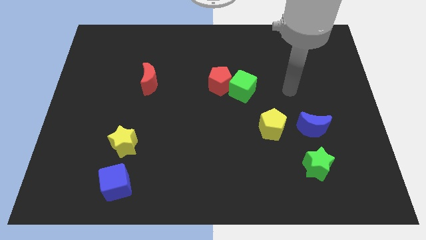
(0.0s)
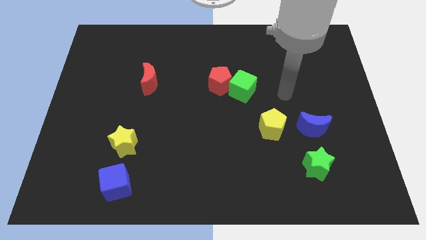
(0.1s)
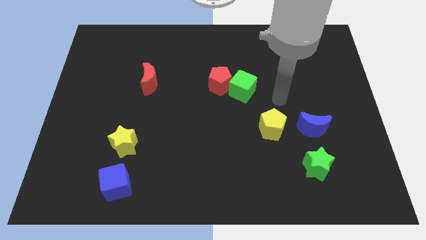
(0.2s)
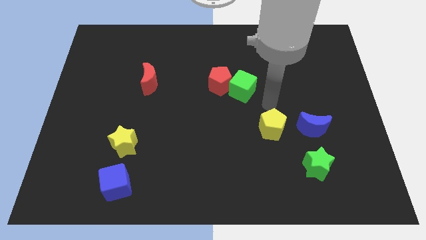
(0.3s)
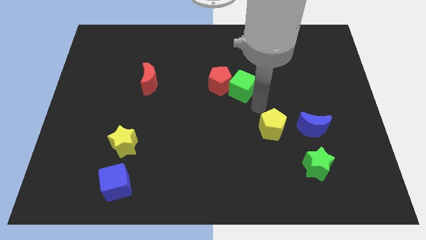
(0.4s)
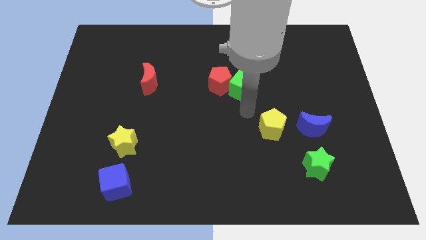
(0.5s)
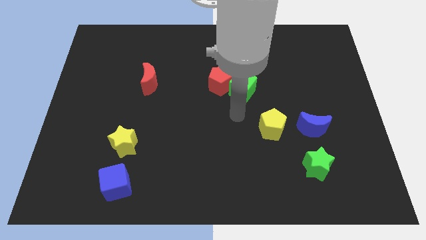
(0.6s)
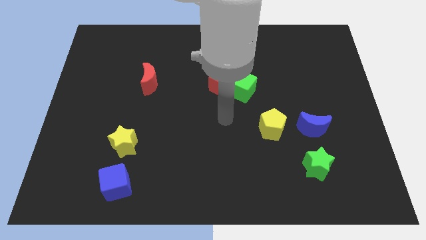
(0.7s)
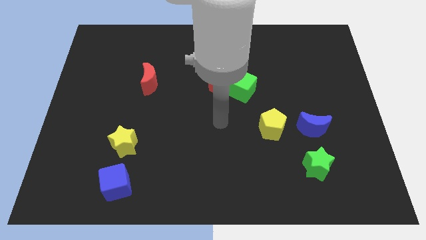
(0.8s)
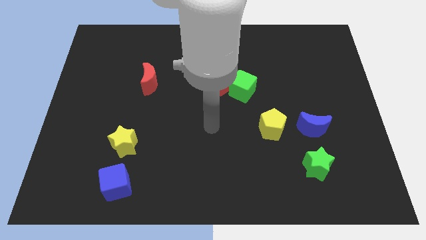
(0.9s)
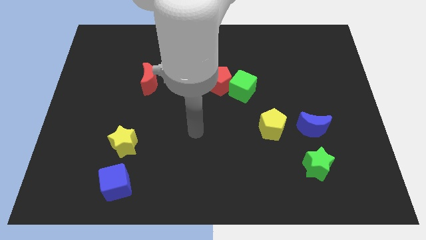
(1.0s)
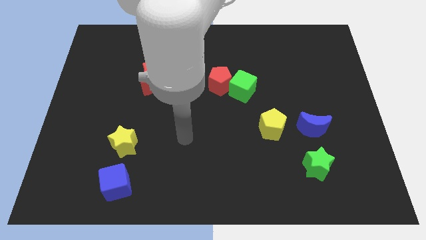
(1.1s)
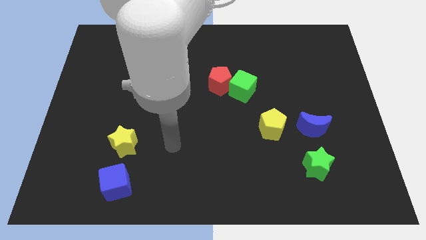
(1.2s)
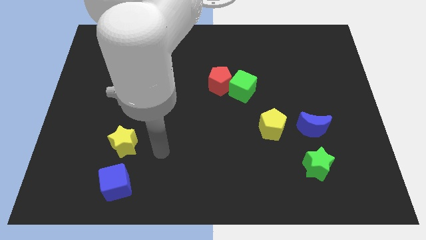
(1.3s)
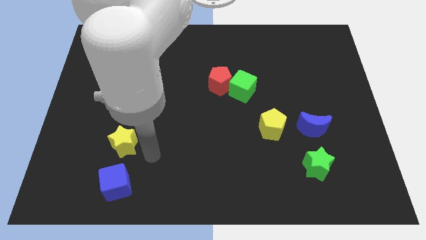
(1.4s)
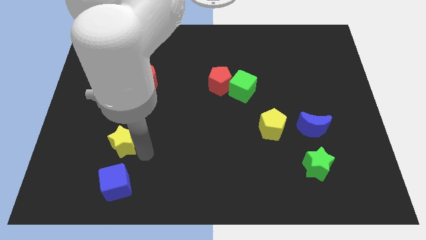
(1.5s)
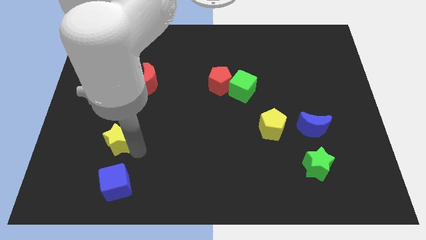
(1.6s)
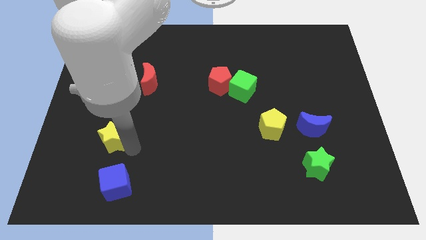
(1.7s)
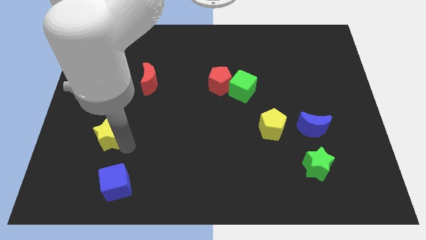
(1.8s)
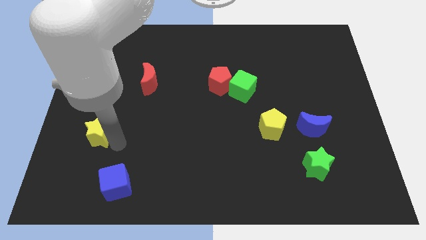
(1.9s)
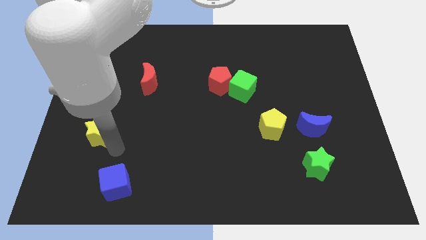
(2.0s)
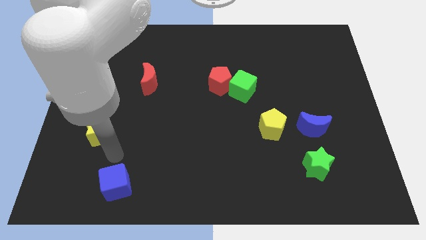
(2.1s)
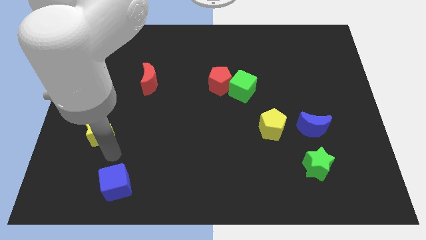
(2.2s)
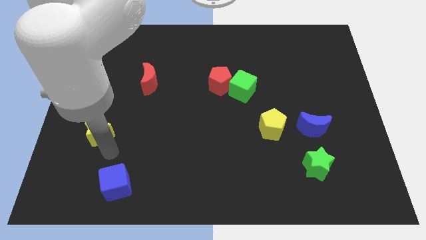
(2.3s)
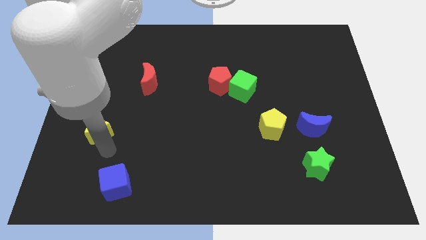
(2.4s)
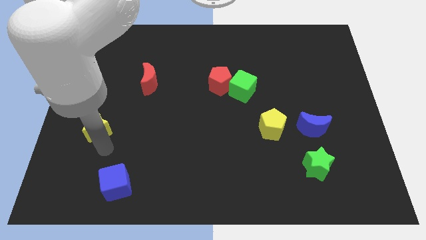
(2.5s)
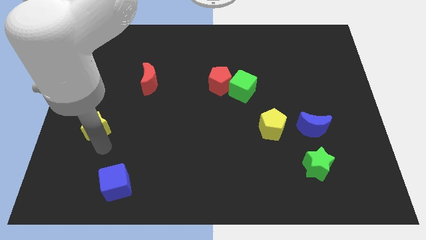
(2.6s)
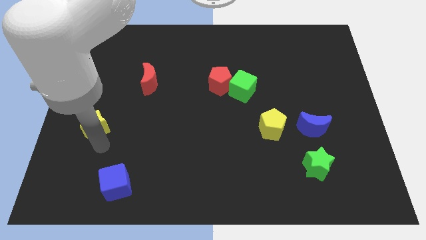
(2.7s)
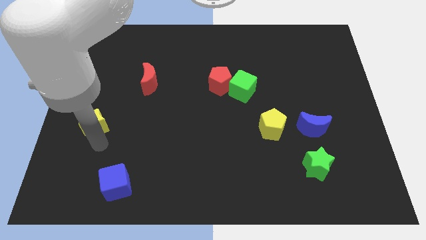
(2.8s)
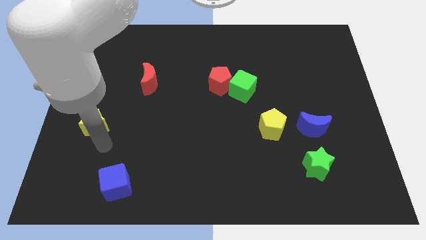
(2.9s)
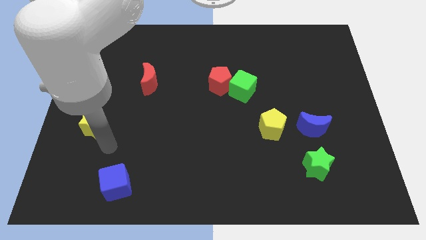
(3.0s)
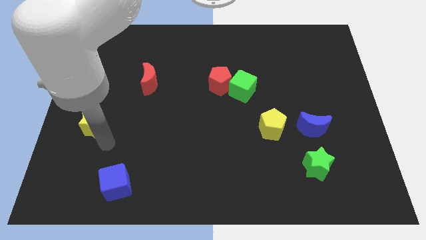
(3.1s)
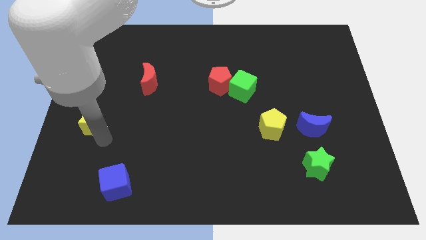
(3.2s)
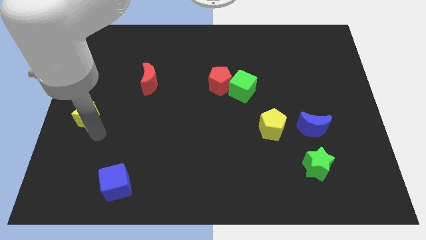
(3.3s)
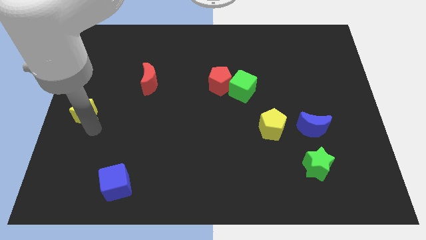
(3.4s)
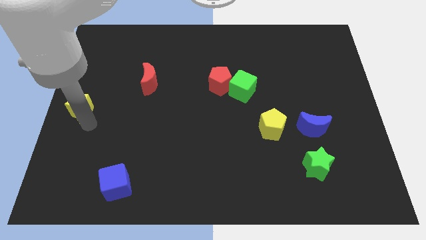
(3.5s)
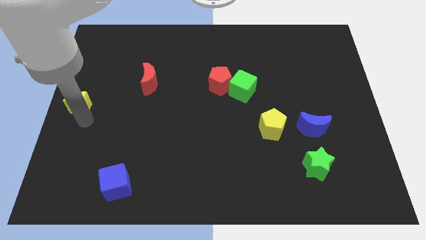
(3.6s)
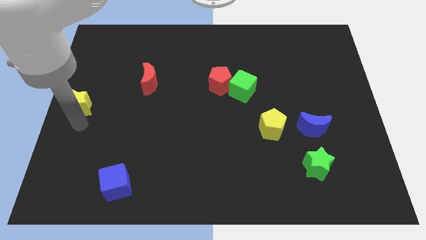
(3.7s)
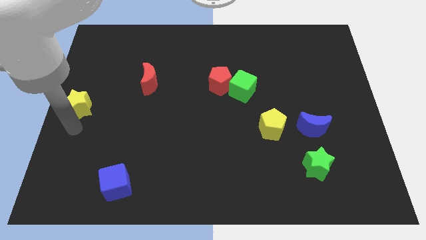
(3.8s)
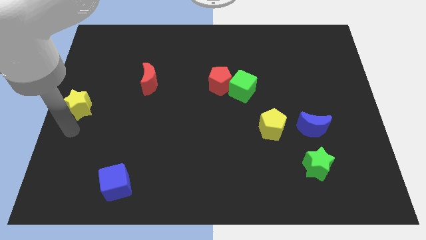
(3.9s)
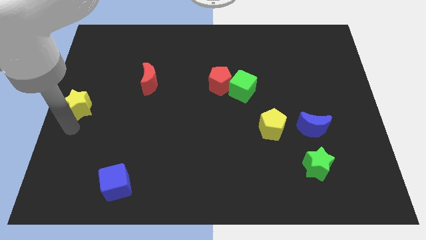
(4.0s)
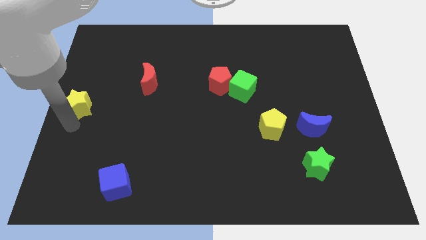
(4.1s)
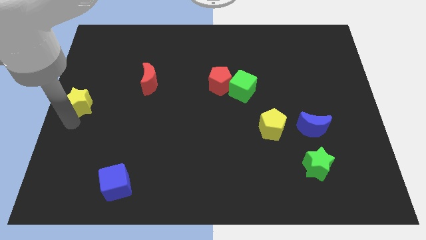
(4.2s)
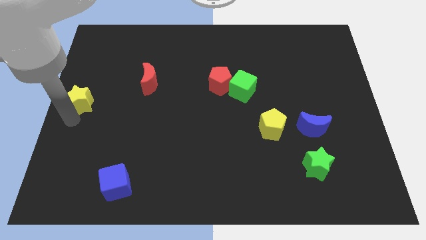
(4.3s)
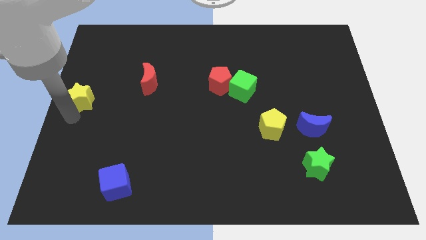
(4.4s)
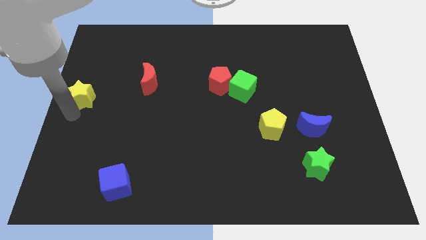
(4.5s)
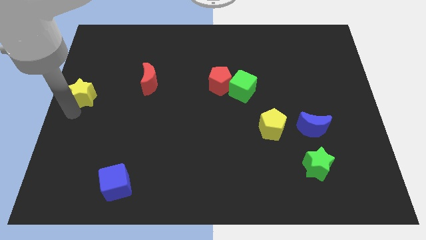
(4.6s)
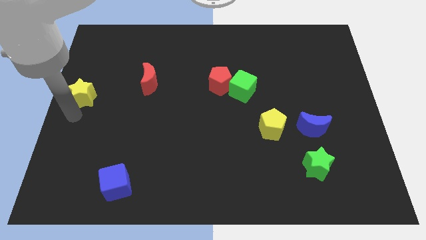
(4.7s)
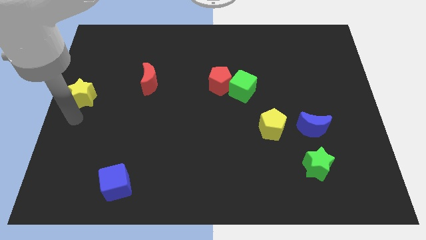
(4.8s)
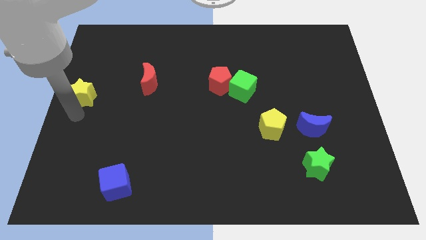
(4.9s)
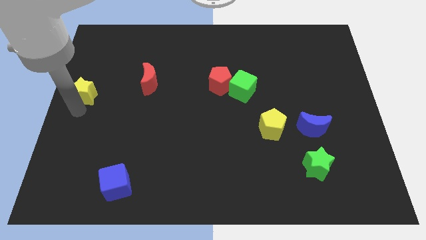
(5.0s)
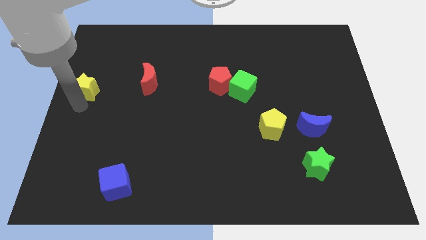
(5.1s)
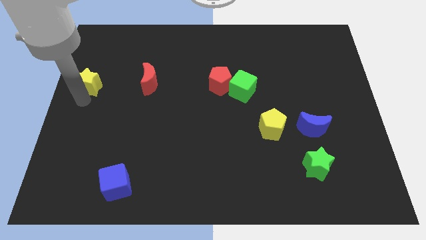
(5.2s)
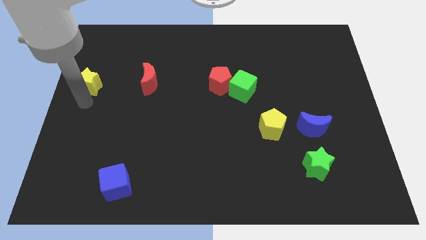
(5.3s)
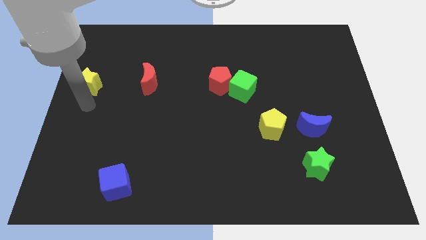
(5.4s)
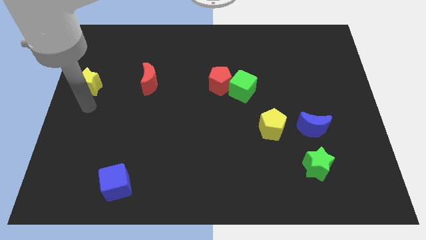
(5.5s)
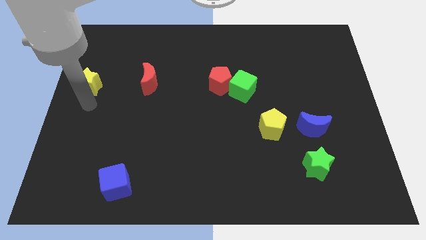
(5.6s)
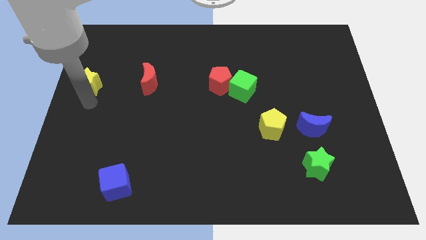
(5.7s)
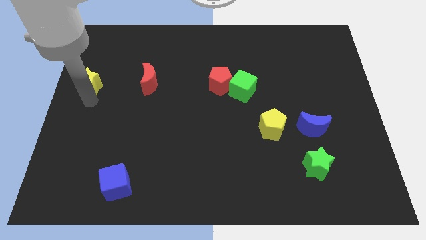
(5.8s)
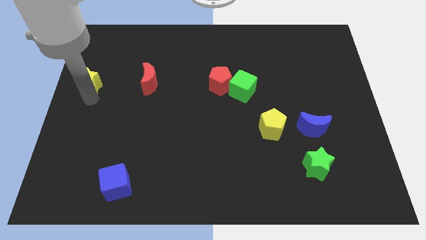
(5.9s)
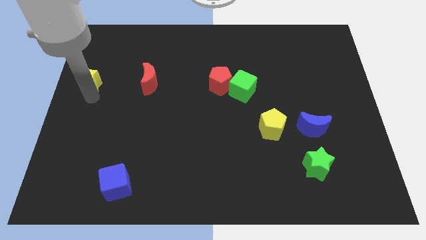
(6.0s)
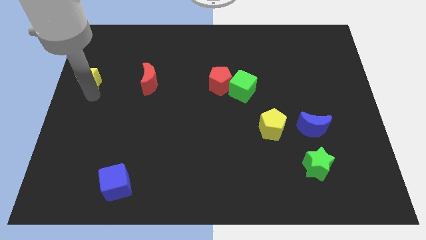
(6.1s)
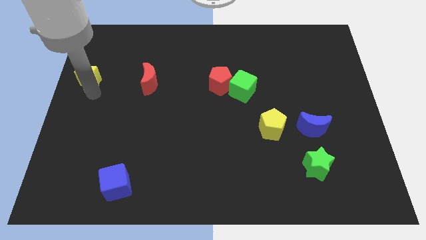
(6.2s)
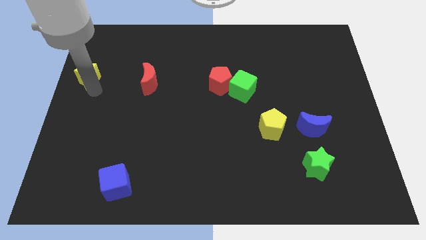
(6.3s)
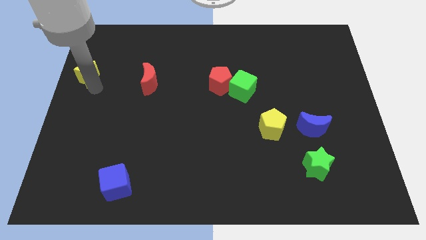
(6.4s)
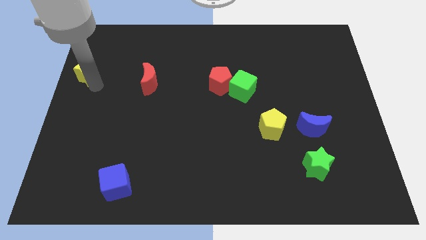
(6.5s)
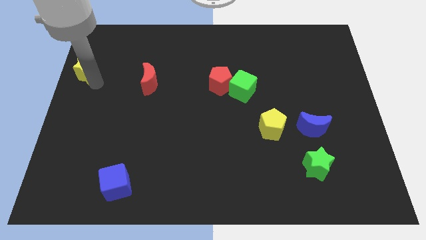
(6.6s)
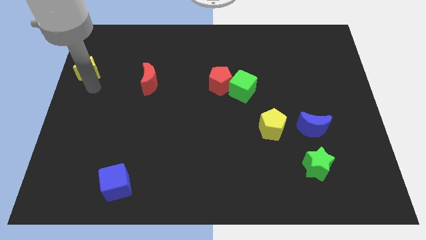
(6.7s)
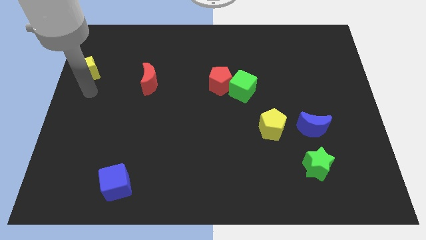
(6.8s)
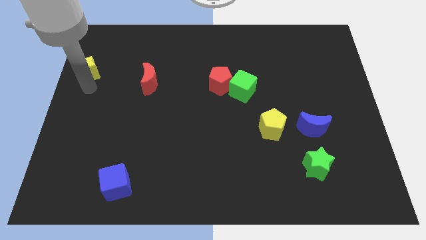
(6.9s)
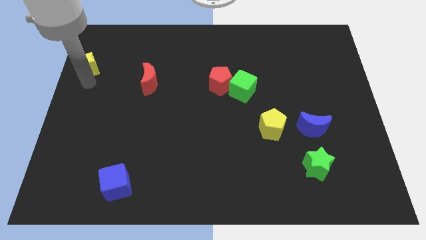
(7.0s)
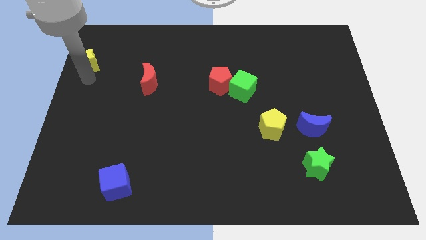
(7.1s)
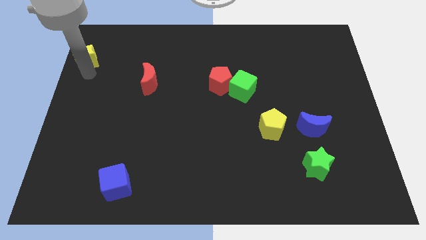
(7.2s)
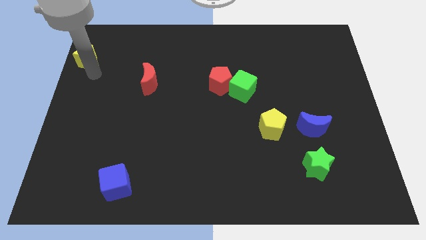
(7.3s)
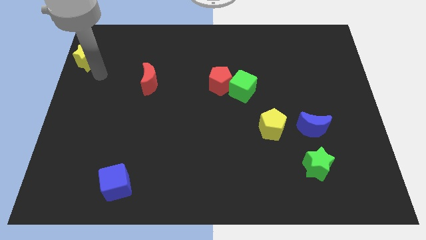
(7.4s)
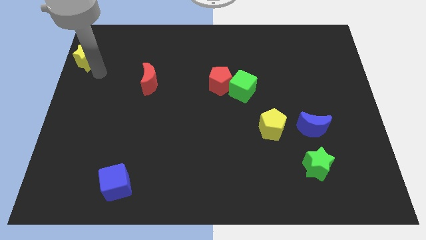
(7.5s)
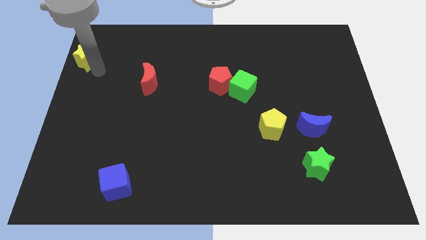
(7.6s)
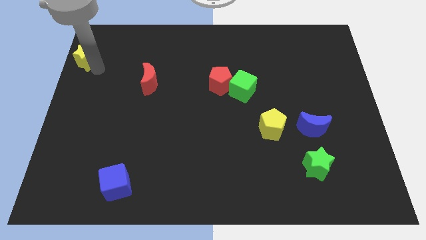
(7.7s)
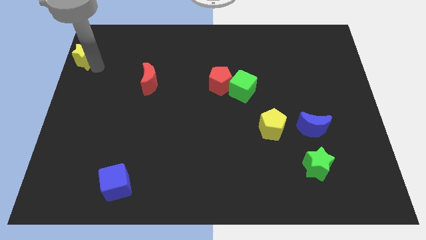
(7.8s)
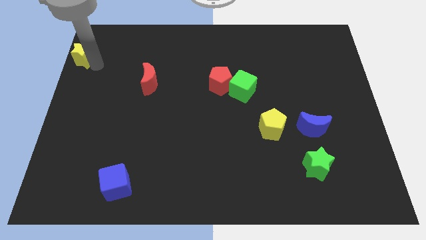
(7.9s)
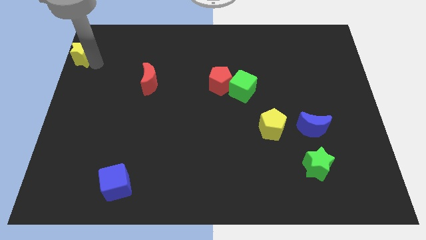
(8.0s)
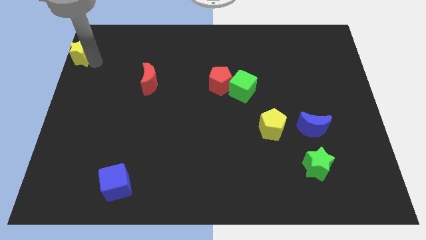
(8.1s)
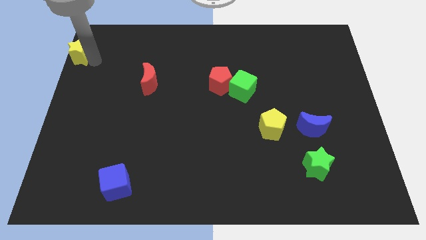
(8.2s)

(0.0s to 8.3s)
put the yellow star to the top left of the board
